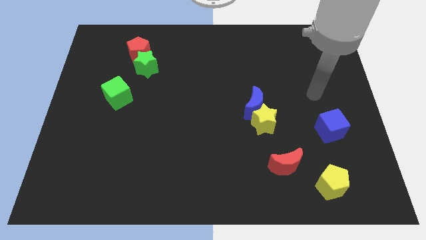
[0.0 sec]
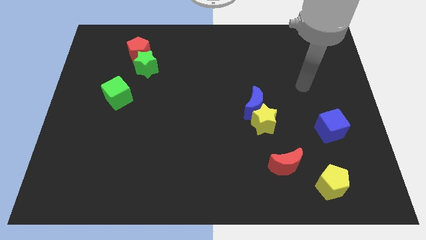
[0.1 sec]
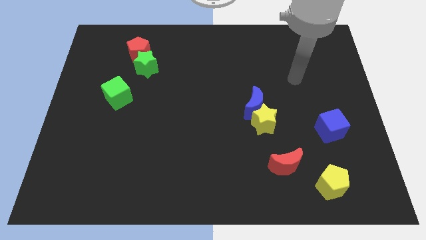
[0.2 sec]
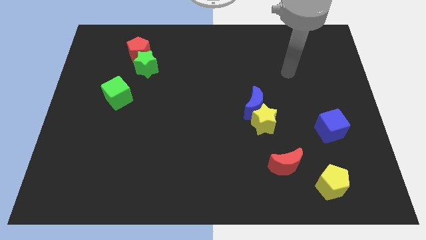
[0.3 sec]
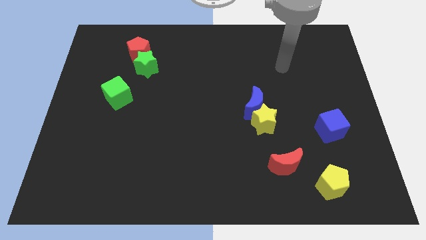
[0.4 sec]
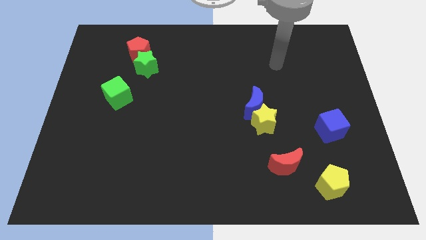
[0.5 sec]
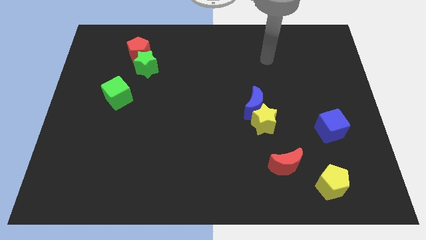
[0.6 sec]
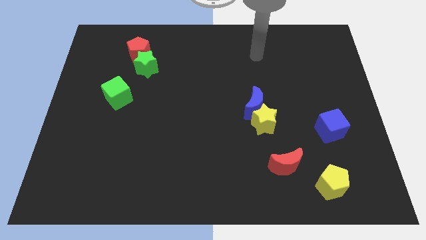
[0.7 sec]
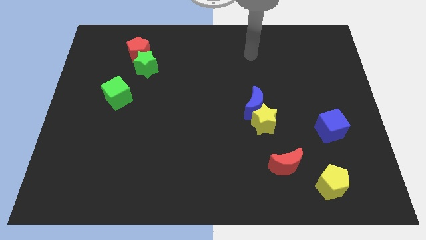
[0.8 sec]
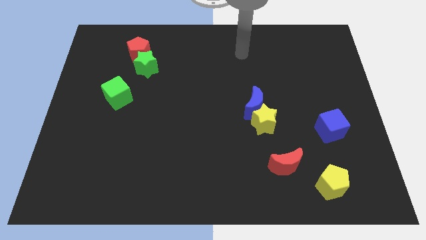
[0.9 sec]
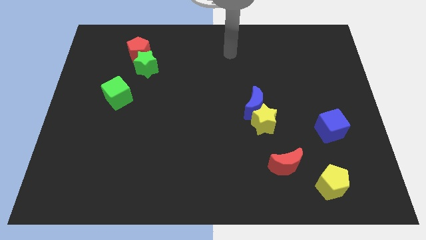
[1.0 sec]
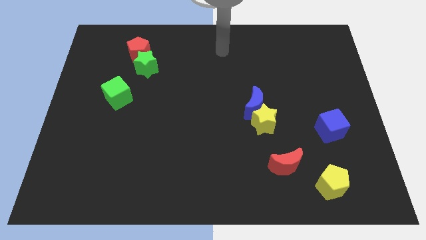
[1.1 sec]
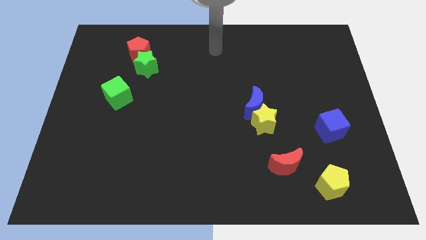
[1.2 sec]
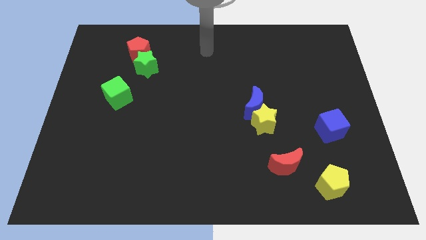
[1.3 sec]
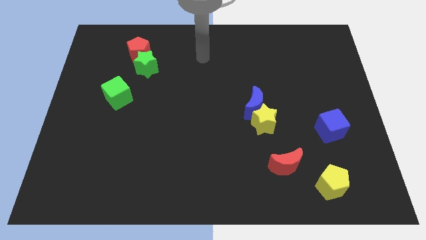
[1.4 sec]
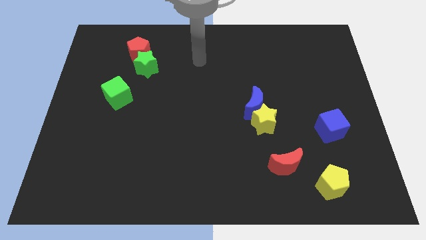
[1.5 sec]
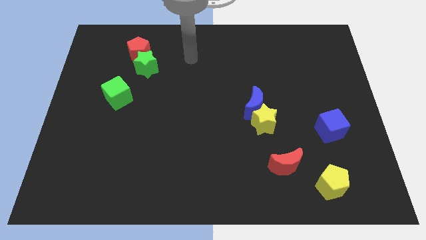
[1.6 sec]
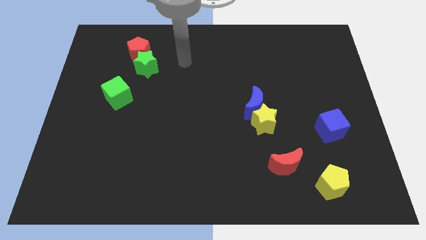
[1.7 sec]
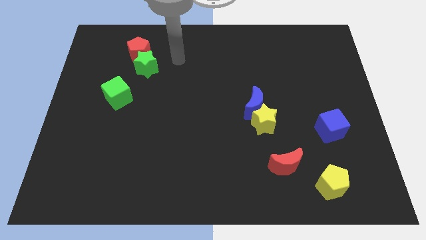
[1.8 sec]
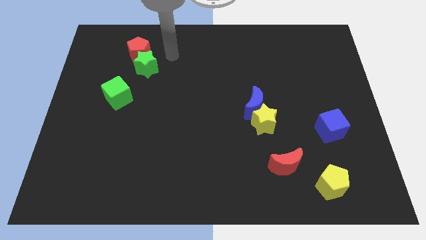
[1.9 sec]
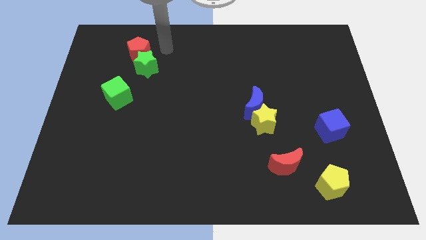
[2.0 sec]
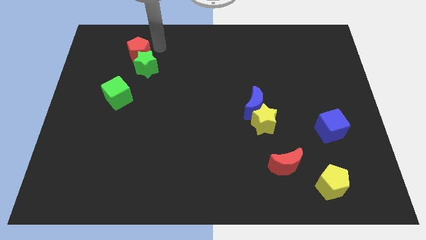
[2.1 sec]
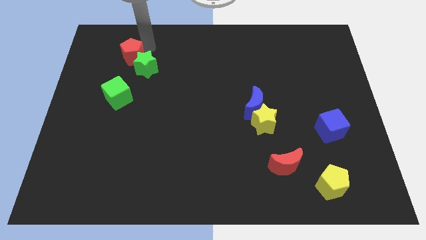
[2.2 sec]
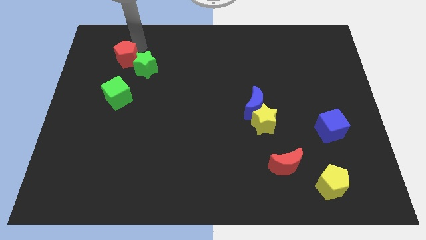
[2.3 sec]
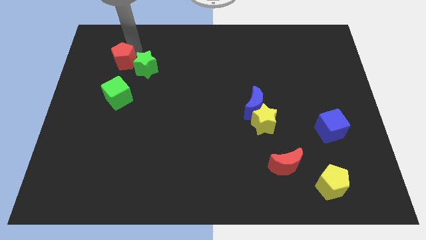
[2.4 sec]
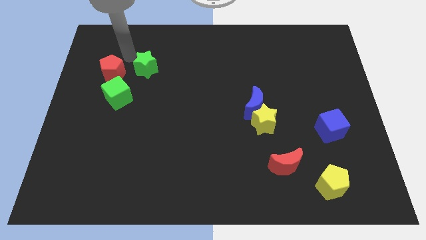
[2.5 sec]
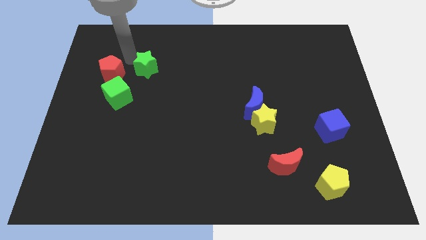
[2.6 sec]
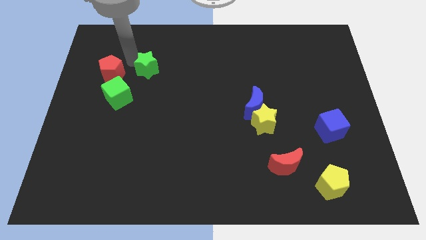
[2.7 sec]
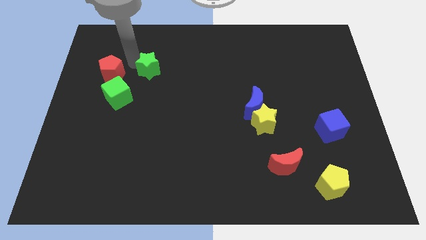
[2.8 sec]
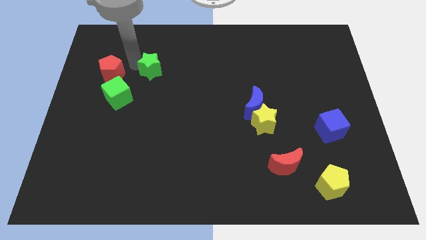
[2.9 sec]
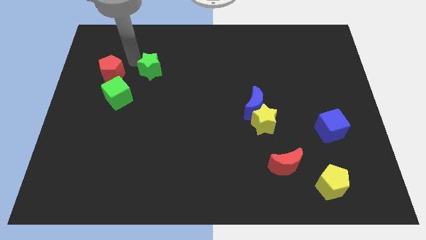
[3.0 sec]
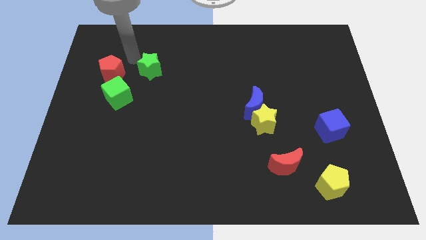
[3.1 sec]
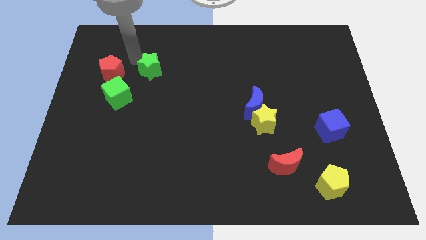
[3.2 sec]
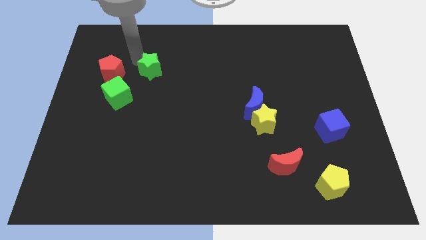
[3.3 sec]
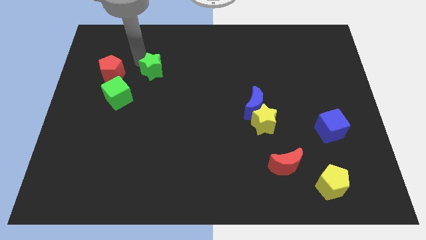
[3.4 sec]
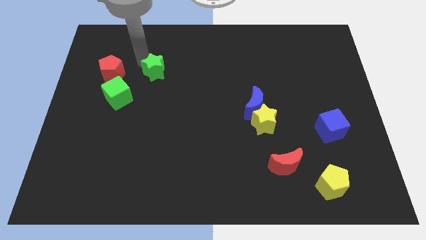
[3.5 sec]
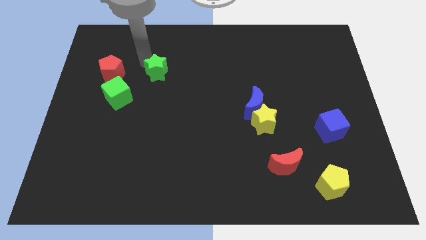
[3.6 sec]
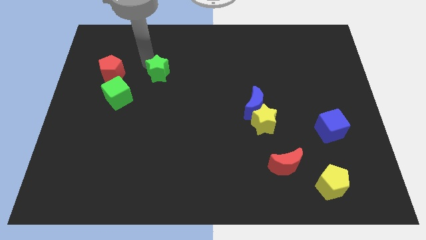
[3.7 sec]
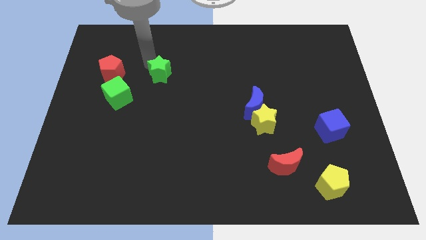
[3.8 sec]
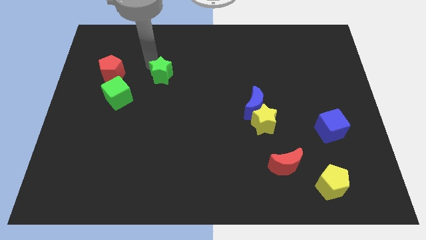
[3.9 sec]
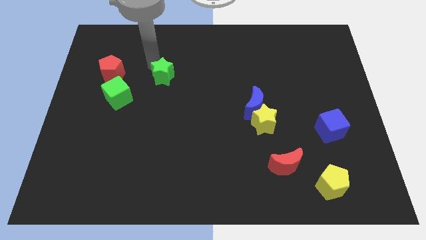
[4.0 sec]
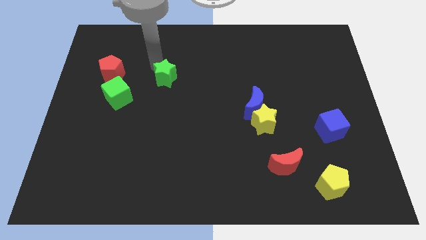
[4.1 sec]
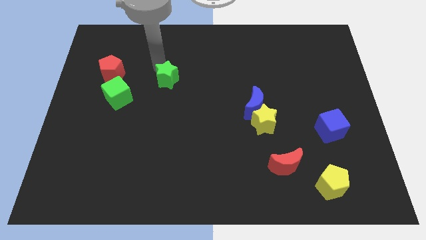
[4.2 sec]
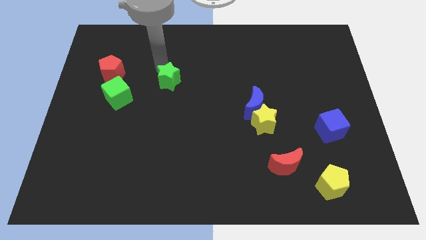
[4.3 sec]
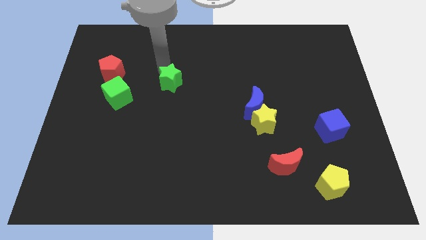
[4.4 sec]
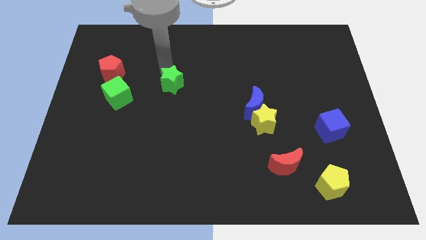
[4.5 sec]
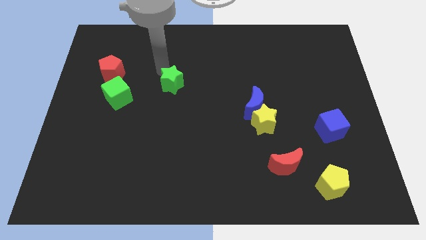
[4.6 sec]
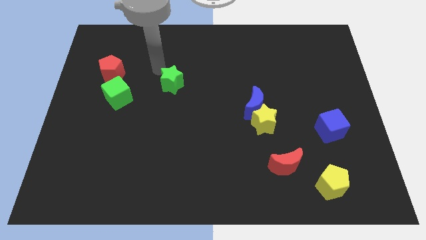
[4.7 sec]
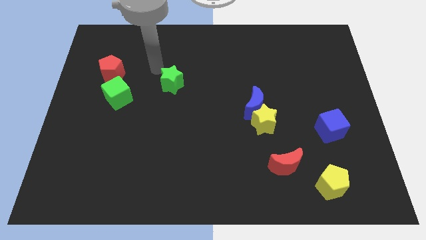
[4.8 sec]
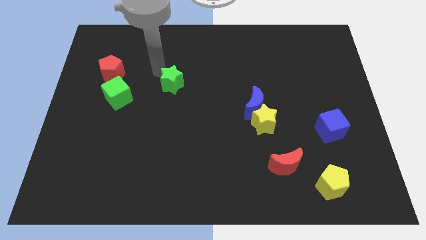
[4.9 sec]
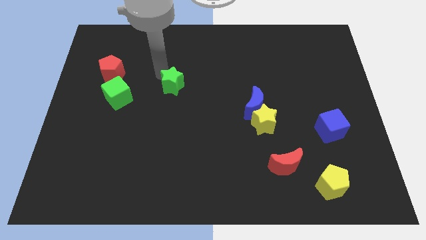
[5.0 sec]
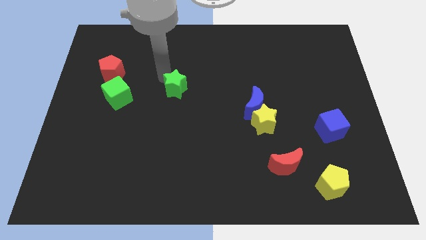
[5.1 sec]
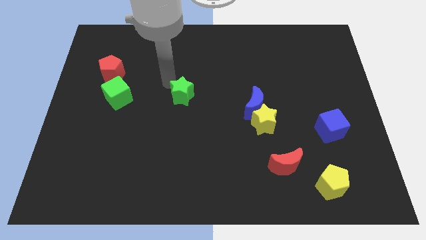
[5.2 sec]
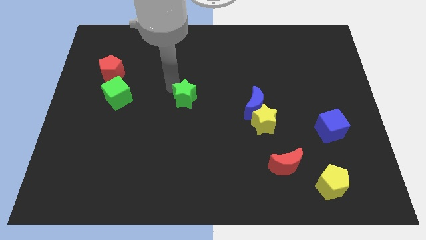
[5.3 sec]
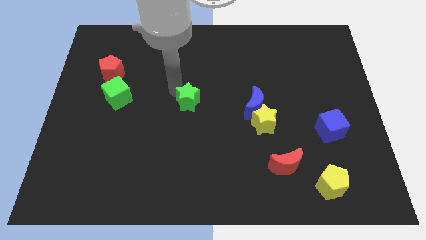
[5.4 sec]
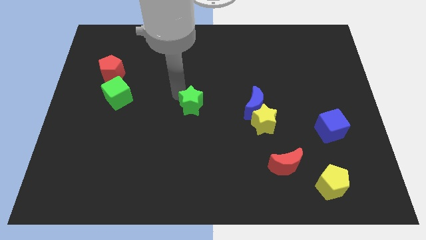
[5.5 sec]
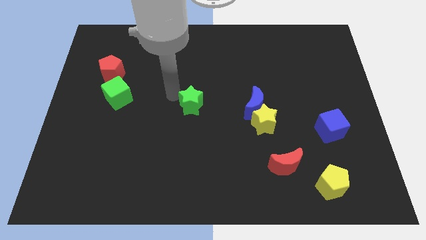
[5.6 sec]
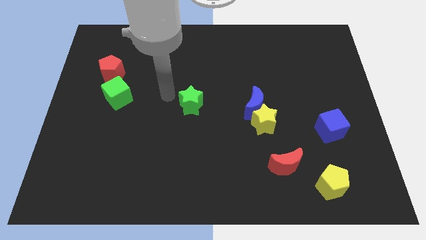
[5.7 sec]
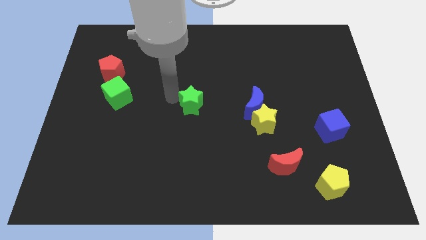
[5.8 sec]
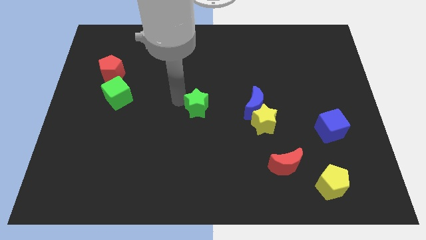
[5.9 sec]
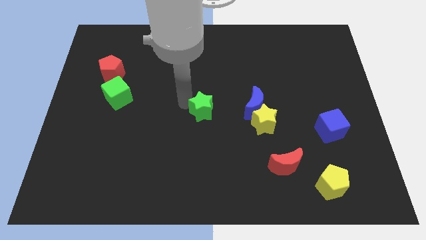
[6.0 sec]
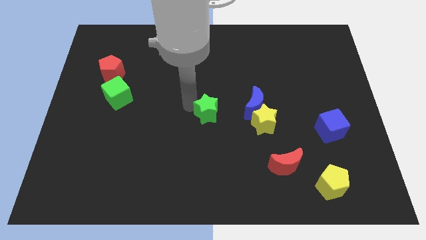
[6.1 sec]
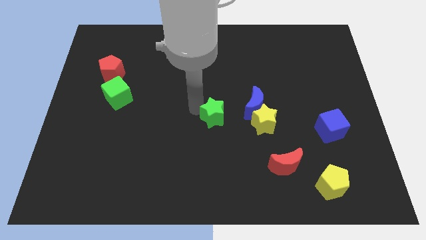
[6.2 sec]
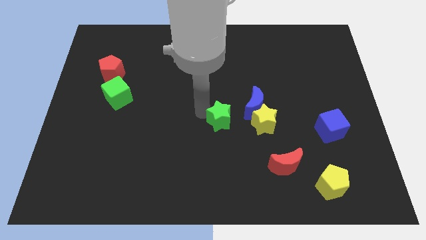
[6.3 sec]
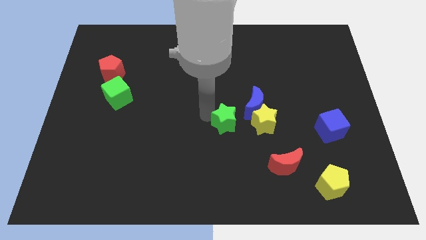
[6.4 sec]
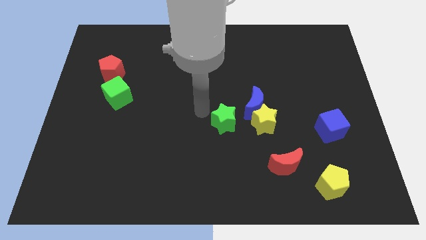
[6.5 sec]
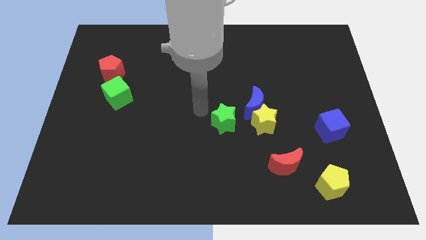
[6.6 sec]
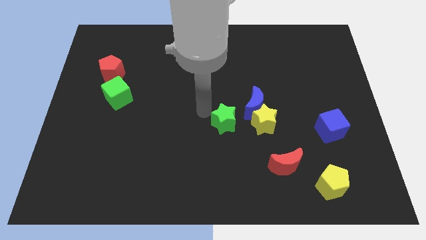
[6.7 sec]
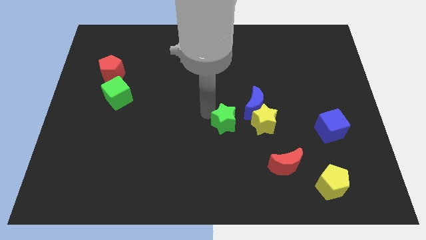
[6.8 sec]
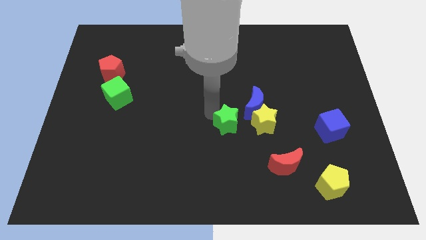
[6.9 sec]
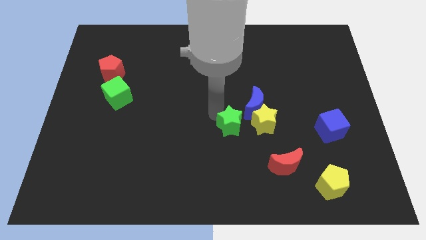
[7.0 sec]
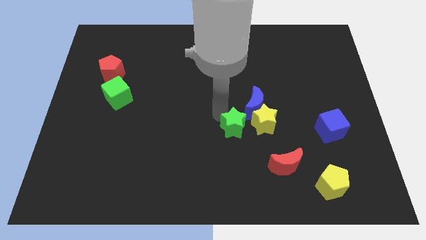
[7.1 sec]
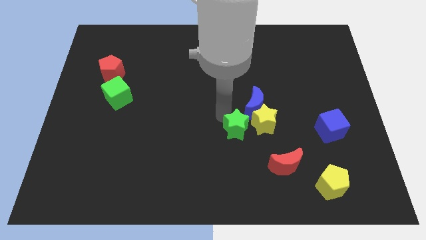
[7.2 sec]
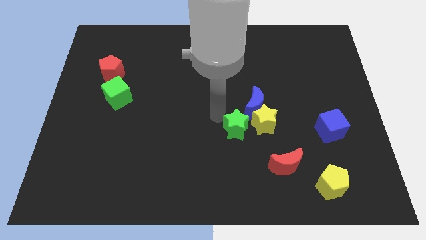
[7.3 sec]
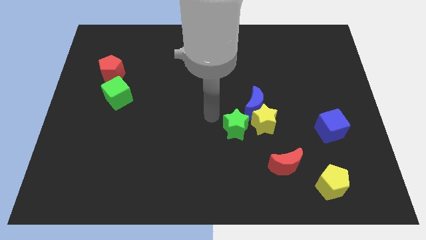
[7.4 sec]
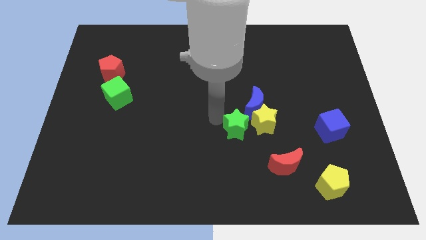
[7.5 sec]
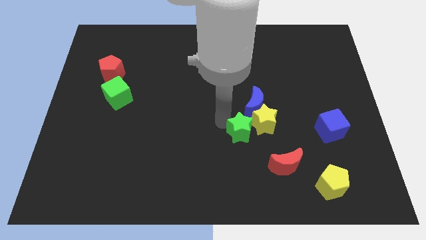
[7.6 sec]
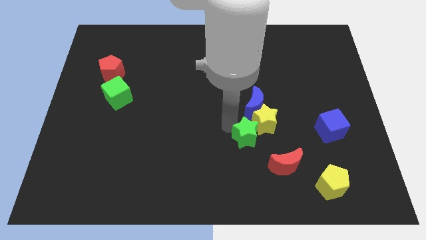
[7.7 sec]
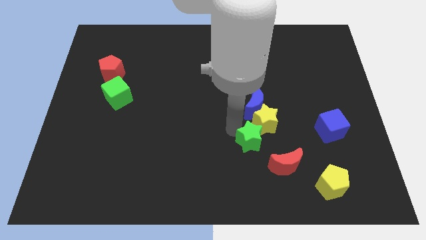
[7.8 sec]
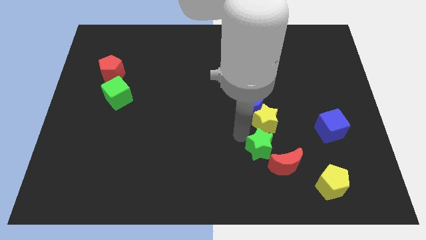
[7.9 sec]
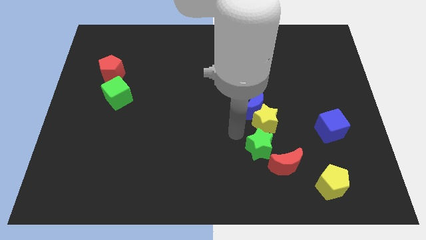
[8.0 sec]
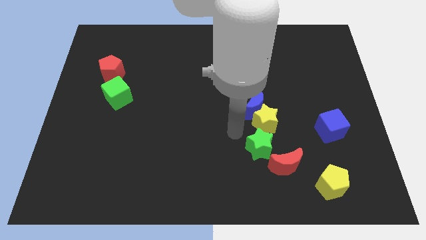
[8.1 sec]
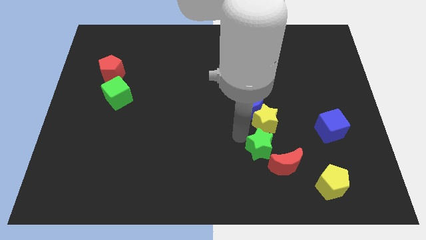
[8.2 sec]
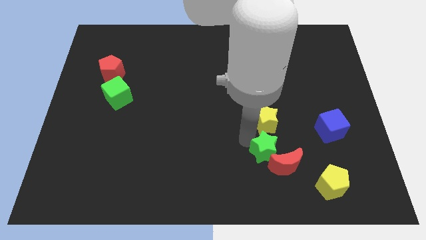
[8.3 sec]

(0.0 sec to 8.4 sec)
push the green star to the red moon
